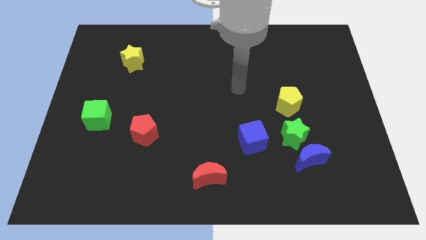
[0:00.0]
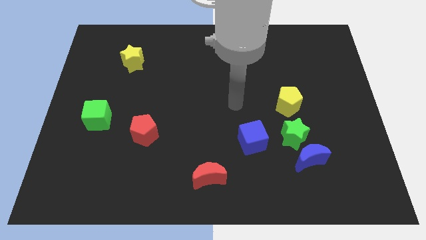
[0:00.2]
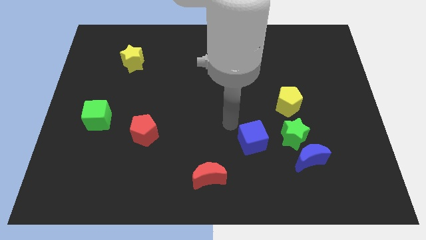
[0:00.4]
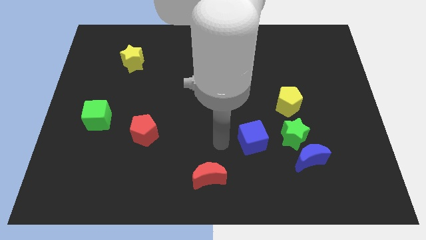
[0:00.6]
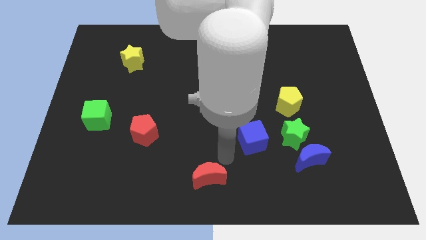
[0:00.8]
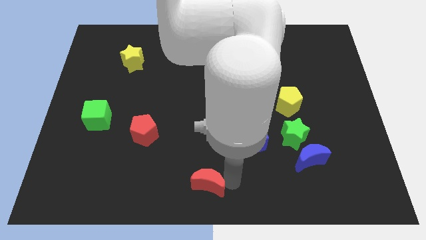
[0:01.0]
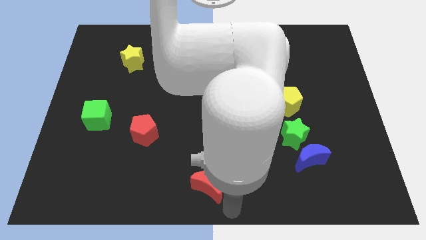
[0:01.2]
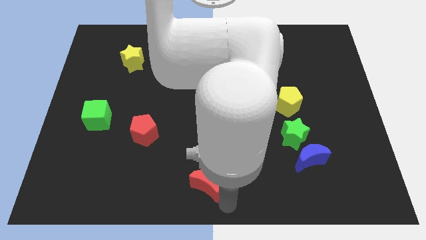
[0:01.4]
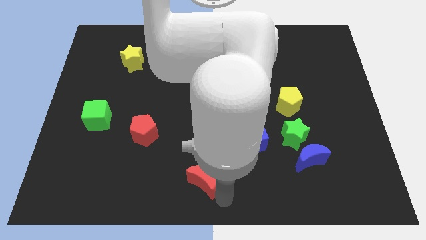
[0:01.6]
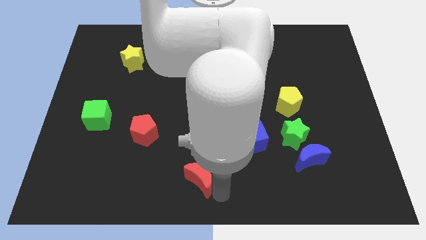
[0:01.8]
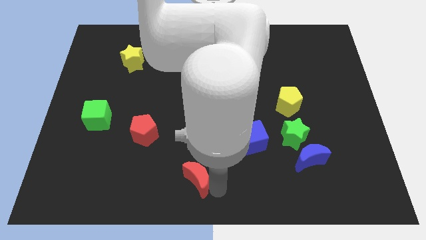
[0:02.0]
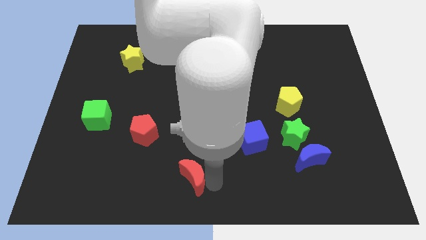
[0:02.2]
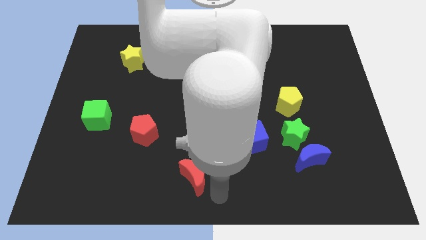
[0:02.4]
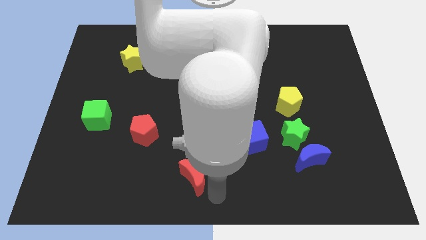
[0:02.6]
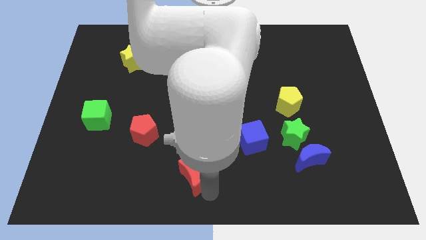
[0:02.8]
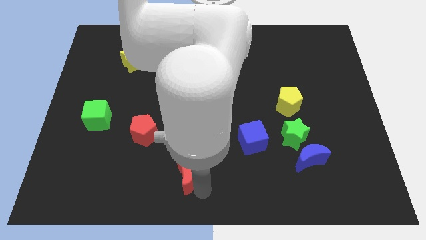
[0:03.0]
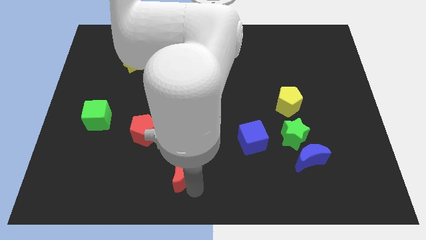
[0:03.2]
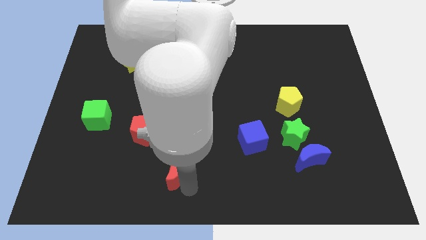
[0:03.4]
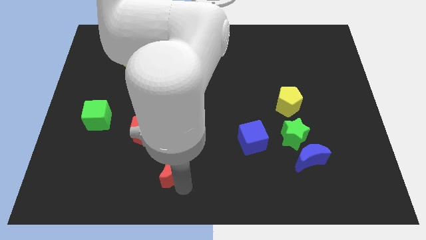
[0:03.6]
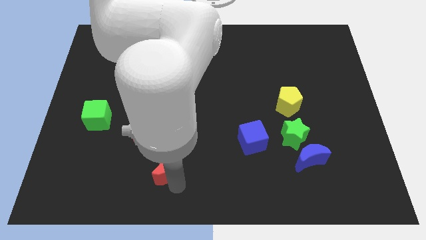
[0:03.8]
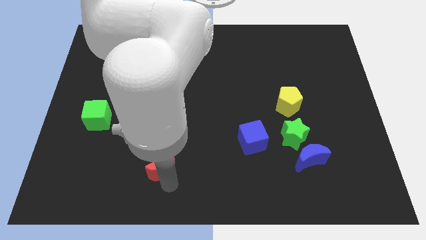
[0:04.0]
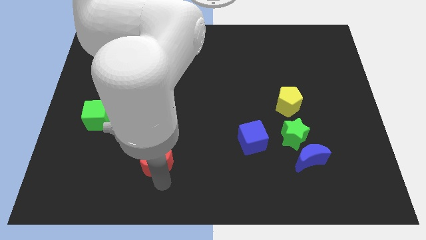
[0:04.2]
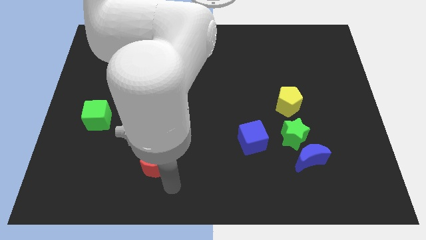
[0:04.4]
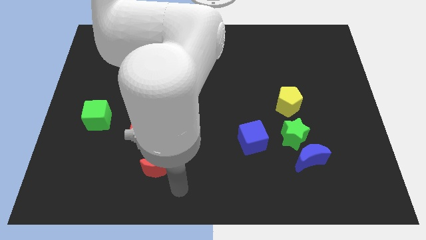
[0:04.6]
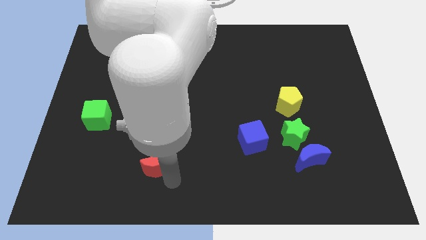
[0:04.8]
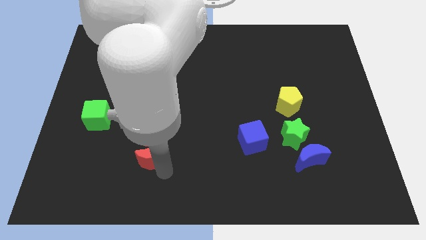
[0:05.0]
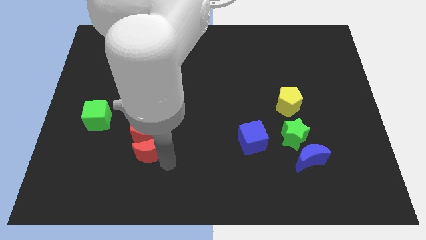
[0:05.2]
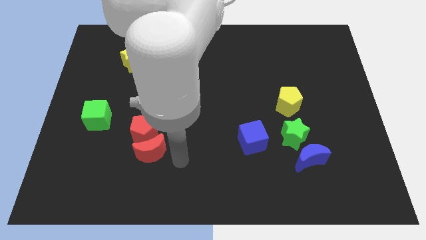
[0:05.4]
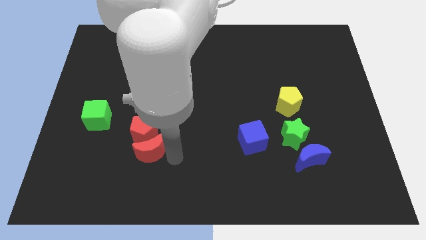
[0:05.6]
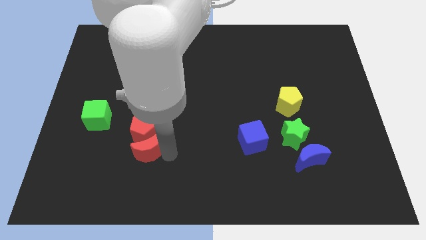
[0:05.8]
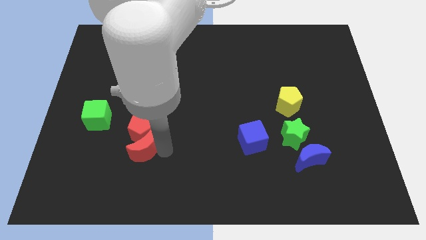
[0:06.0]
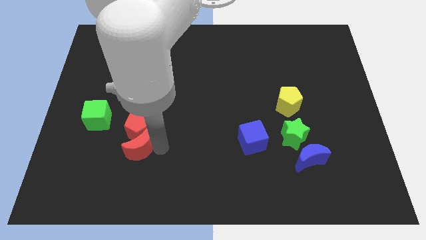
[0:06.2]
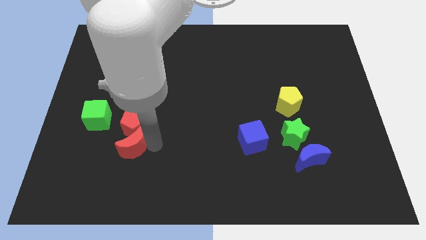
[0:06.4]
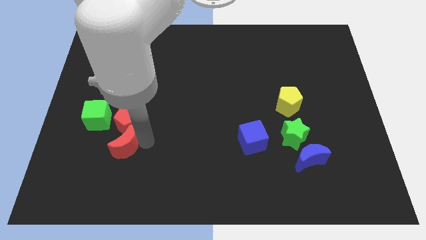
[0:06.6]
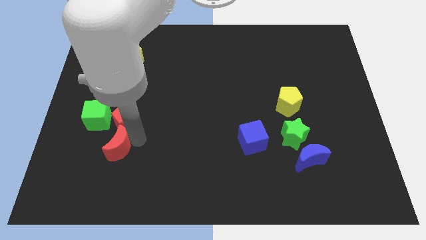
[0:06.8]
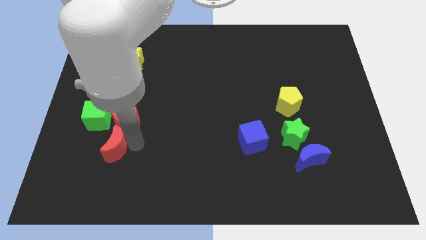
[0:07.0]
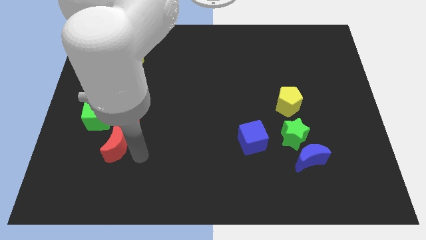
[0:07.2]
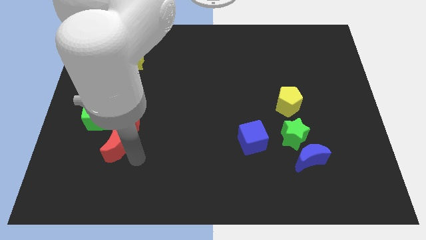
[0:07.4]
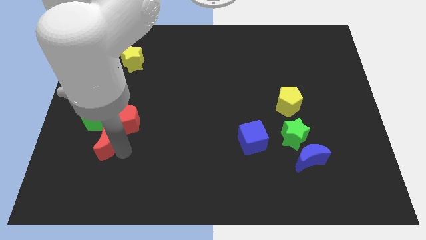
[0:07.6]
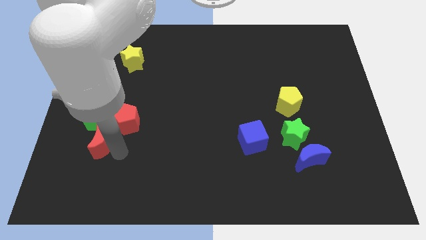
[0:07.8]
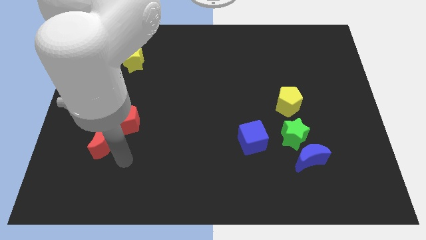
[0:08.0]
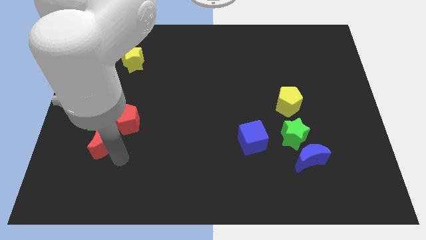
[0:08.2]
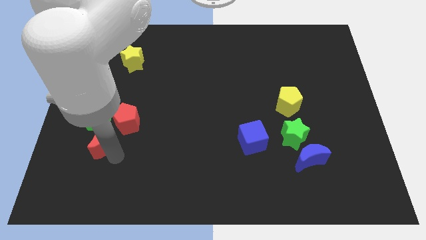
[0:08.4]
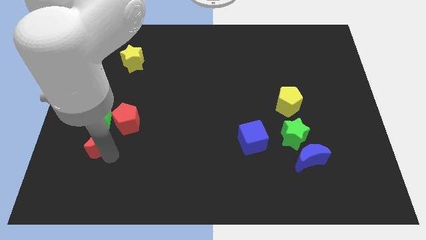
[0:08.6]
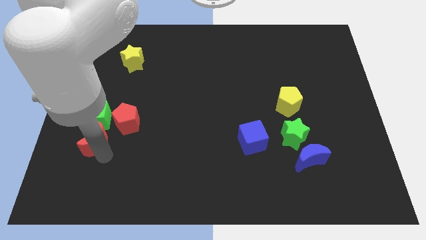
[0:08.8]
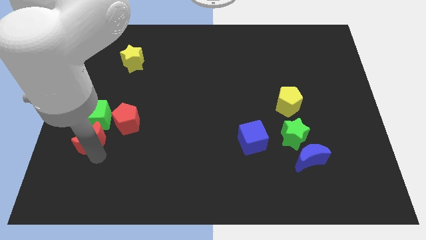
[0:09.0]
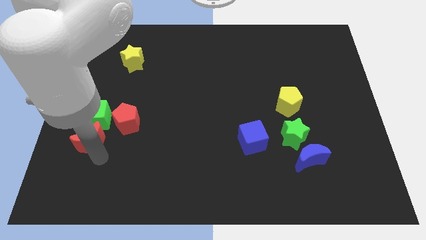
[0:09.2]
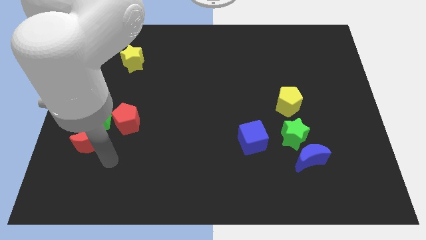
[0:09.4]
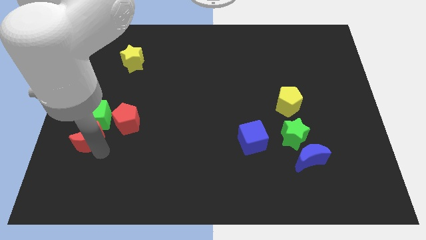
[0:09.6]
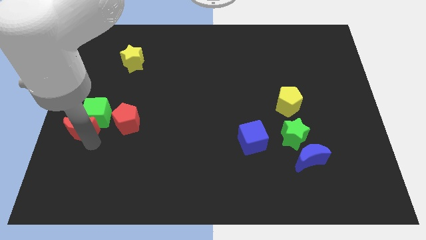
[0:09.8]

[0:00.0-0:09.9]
move the red moon to the left side of the board

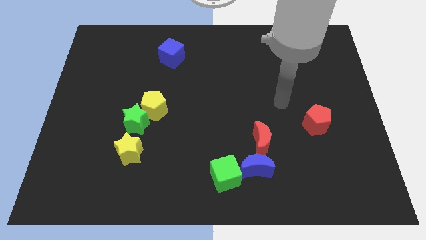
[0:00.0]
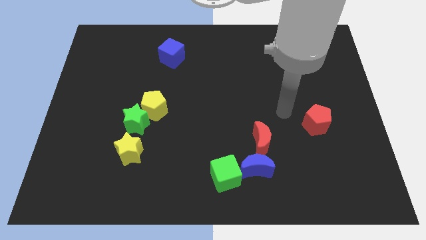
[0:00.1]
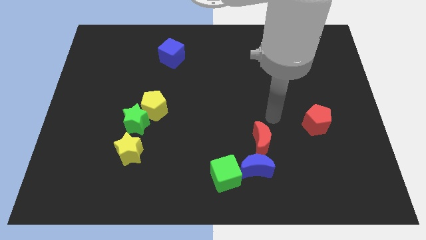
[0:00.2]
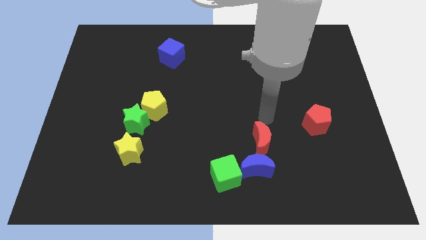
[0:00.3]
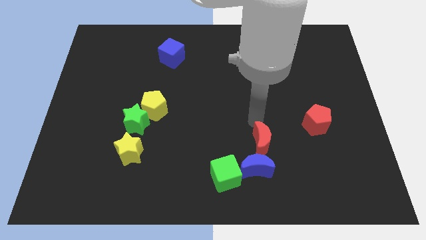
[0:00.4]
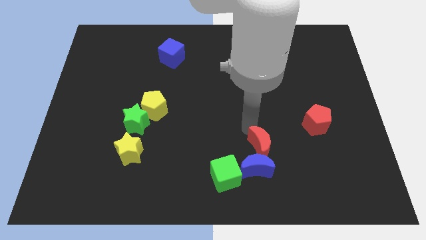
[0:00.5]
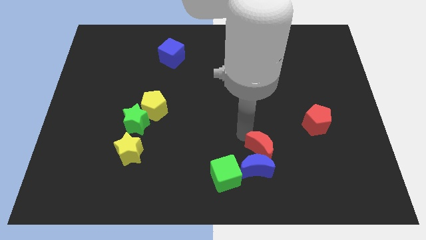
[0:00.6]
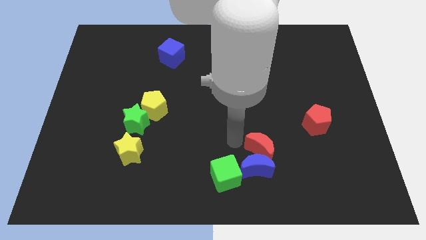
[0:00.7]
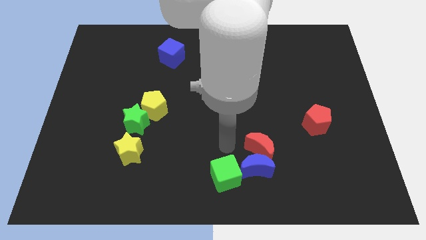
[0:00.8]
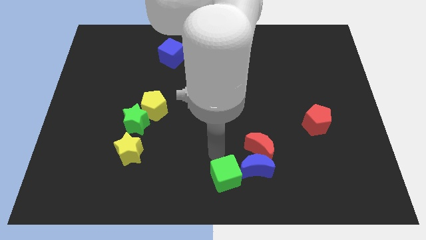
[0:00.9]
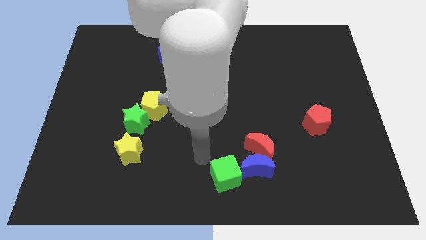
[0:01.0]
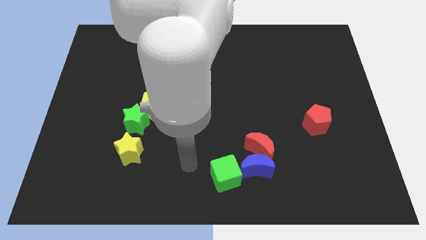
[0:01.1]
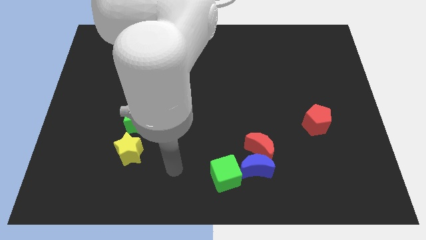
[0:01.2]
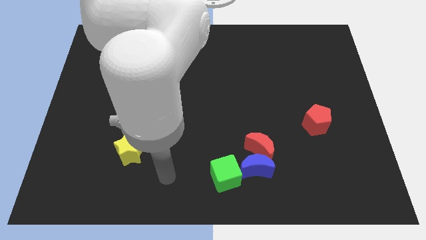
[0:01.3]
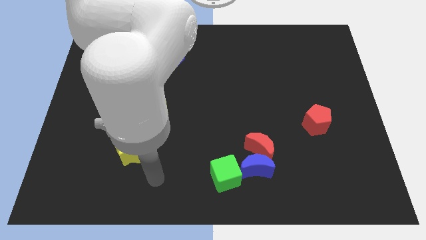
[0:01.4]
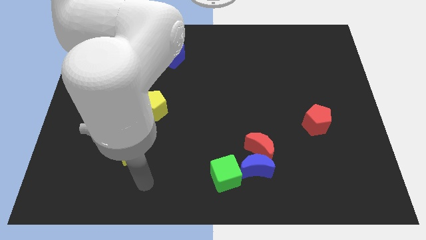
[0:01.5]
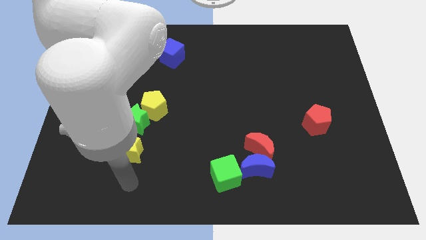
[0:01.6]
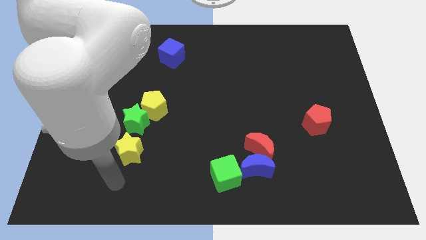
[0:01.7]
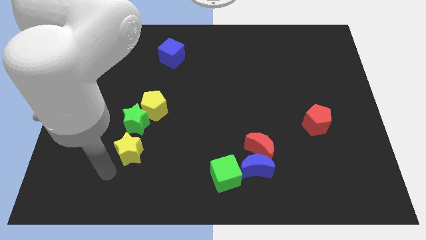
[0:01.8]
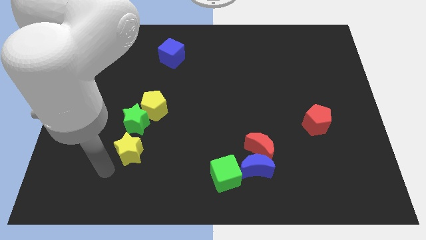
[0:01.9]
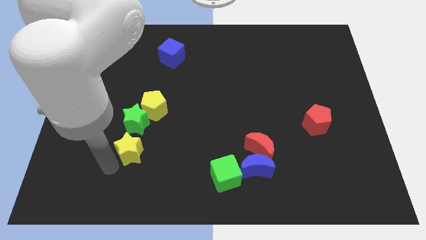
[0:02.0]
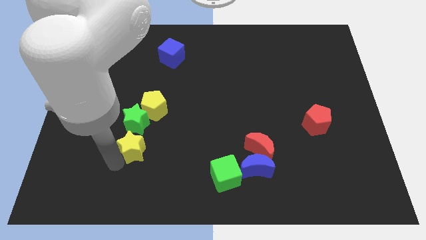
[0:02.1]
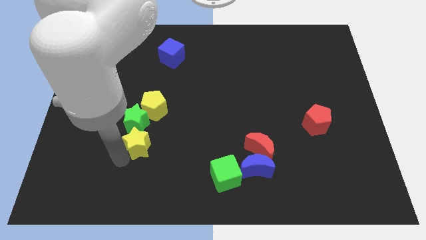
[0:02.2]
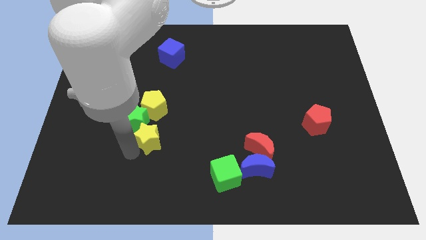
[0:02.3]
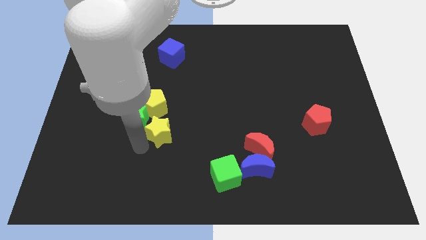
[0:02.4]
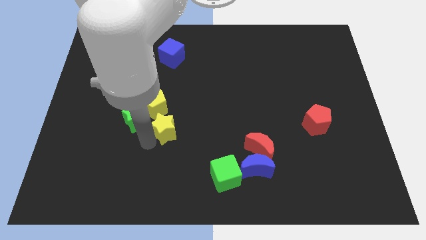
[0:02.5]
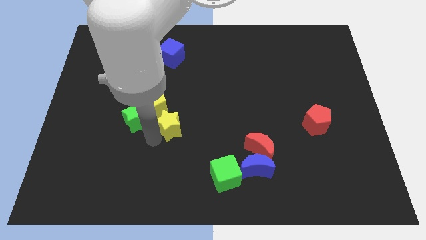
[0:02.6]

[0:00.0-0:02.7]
push the yellow star to the center
